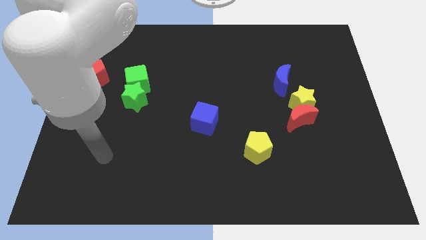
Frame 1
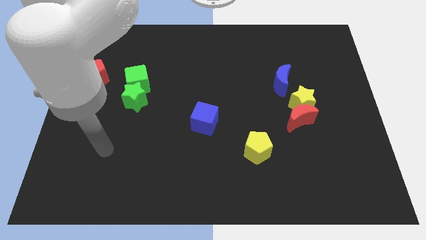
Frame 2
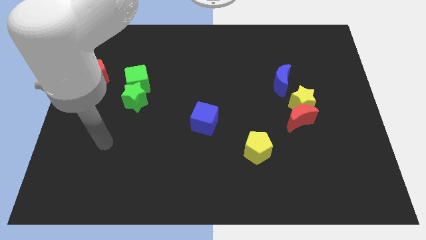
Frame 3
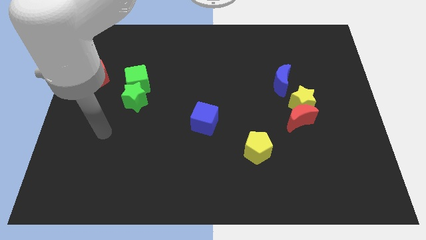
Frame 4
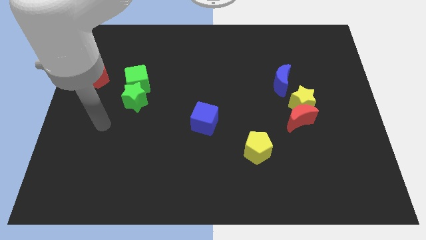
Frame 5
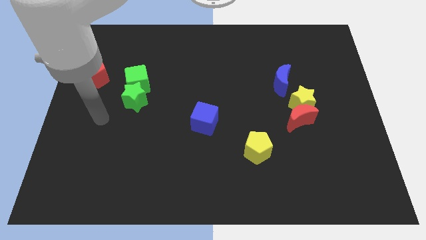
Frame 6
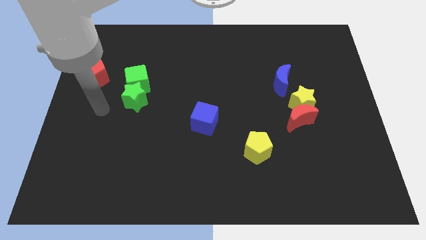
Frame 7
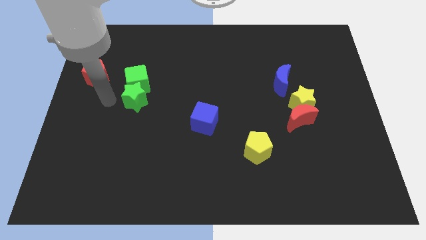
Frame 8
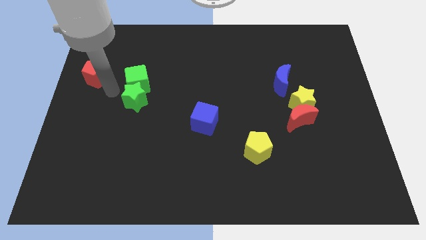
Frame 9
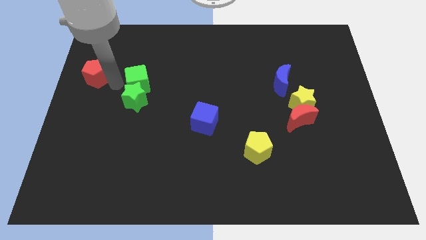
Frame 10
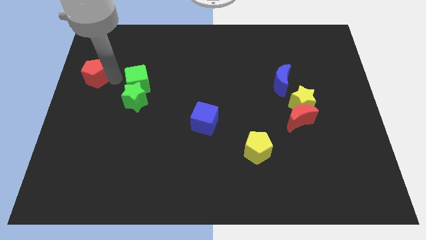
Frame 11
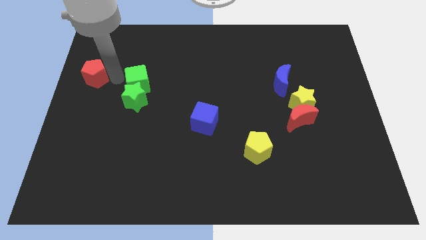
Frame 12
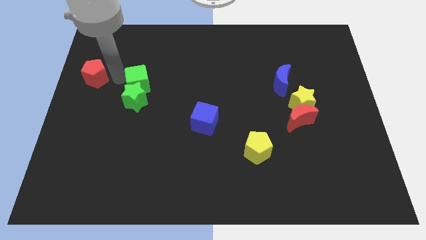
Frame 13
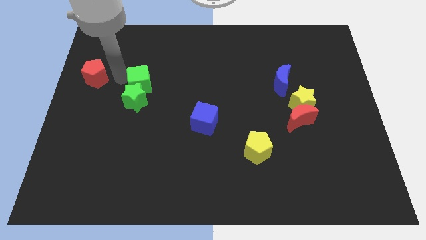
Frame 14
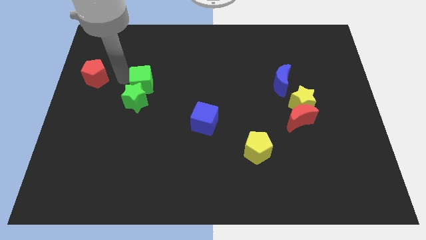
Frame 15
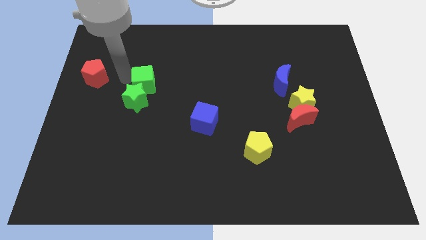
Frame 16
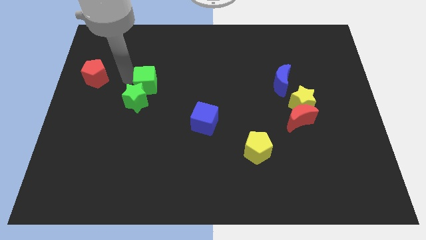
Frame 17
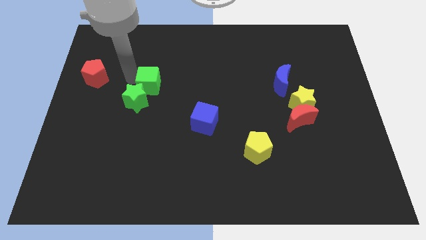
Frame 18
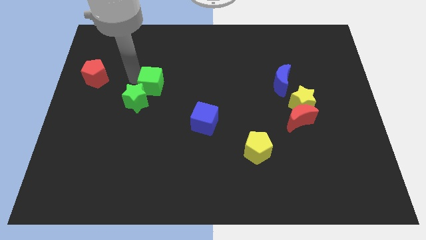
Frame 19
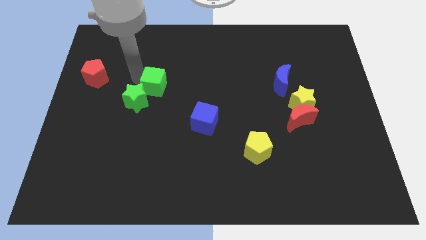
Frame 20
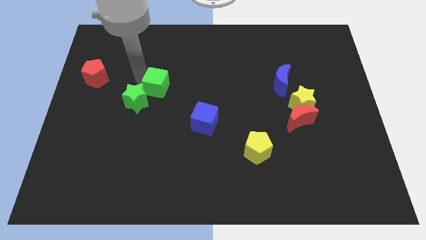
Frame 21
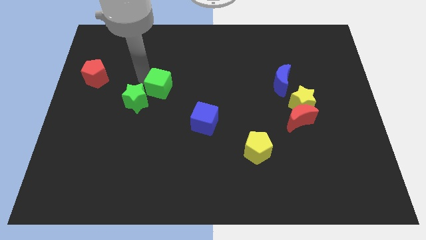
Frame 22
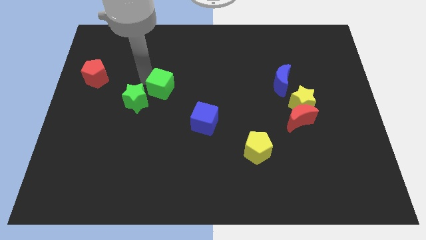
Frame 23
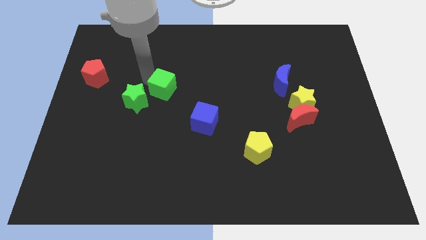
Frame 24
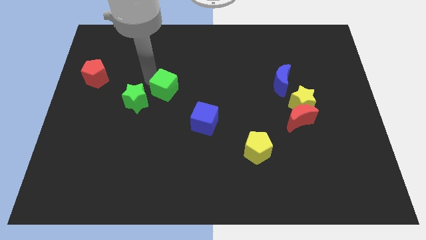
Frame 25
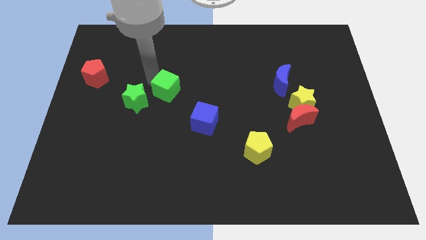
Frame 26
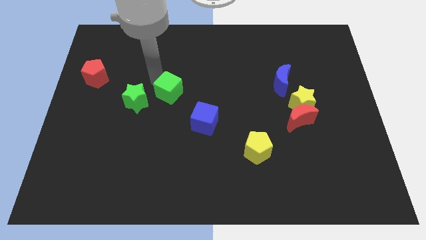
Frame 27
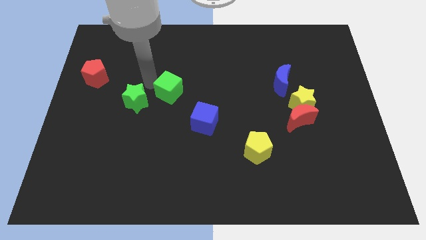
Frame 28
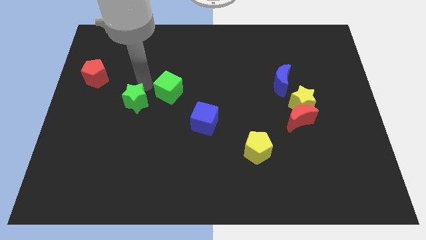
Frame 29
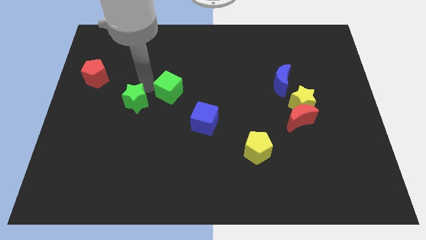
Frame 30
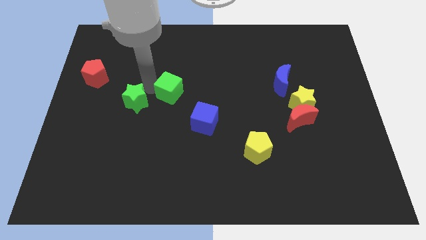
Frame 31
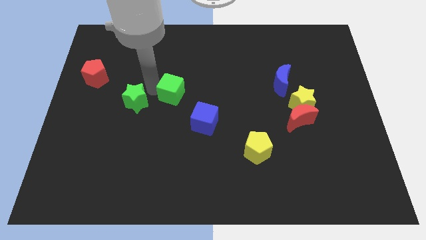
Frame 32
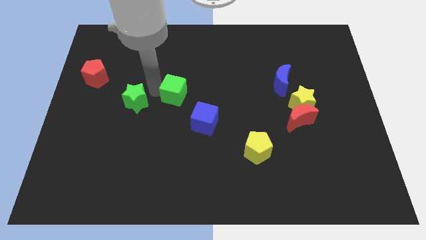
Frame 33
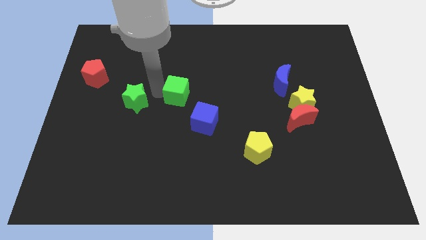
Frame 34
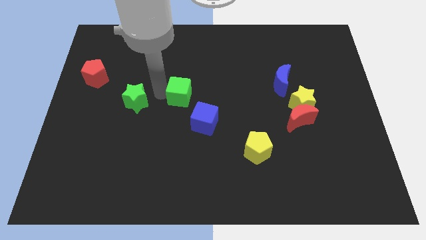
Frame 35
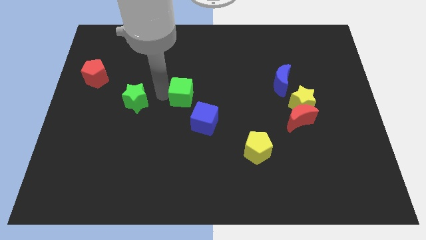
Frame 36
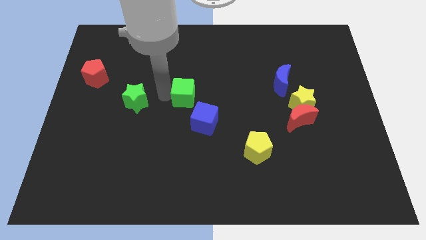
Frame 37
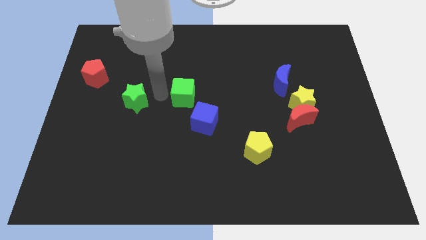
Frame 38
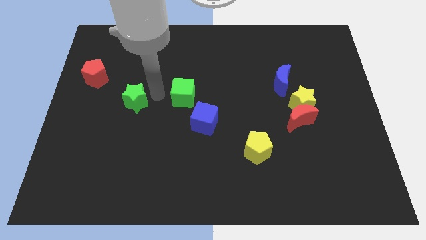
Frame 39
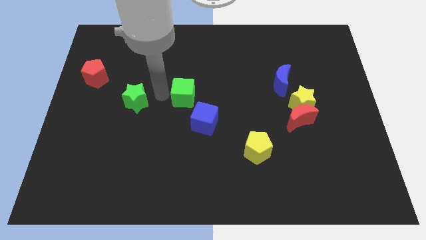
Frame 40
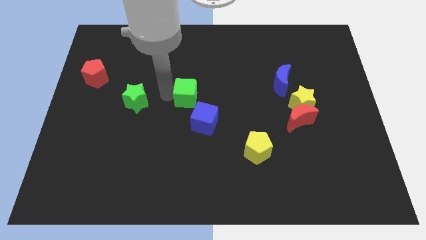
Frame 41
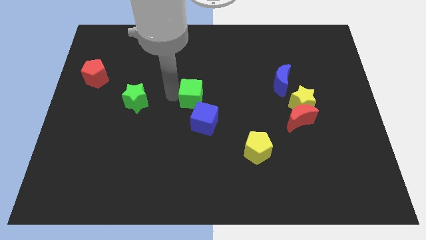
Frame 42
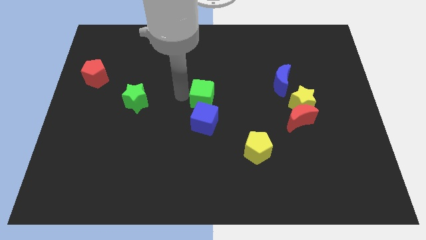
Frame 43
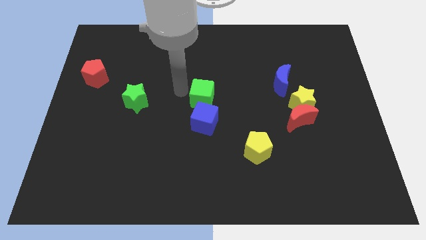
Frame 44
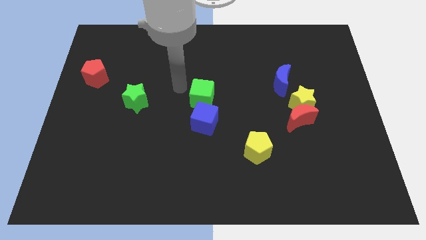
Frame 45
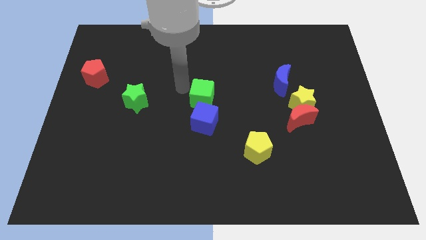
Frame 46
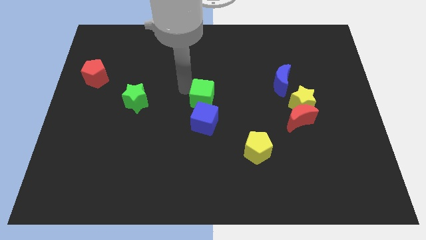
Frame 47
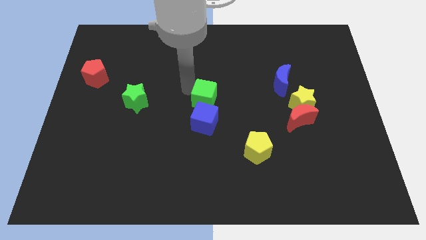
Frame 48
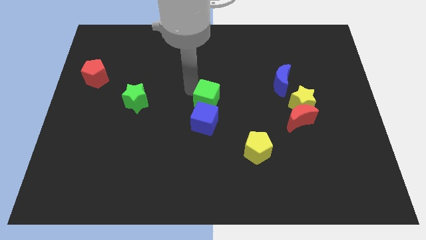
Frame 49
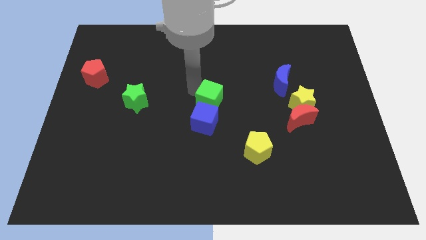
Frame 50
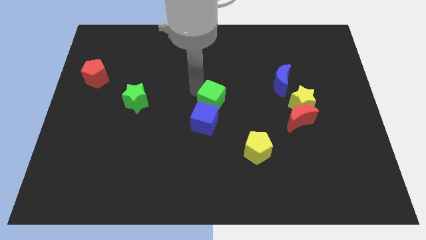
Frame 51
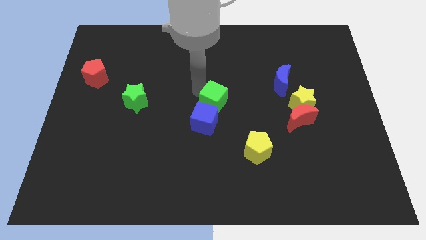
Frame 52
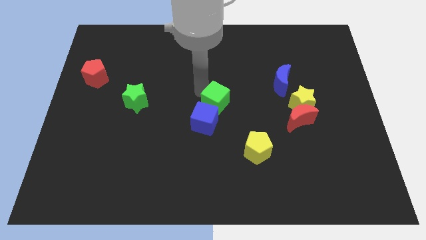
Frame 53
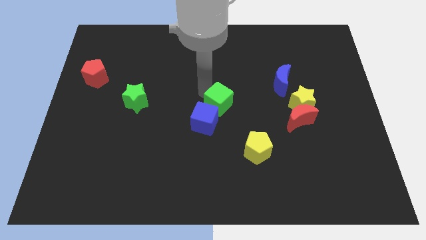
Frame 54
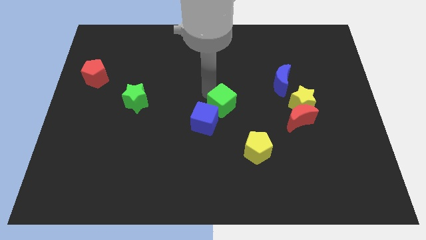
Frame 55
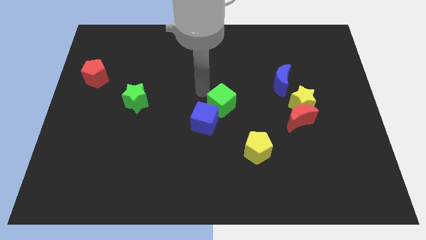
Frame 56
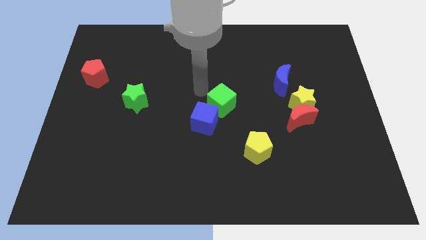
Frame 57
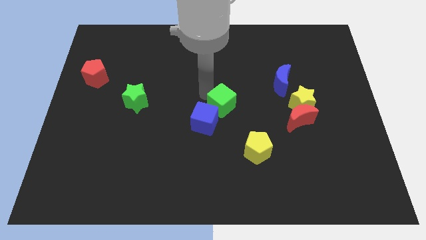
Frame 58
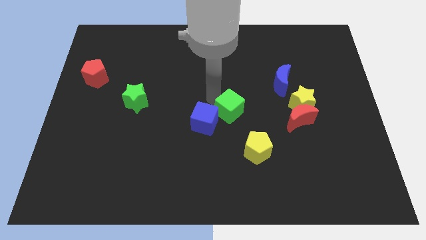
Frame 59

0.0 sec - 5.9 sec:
move the green cube right of the blue cube
